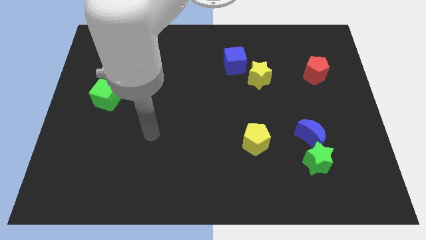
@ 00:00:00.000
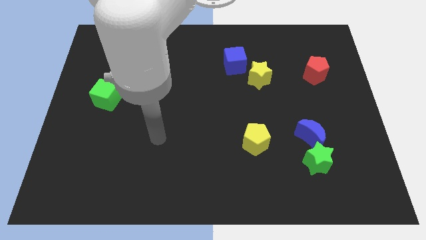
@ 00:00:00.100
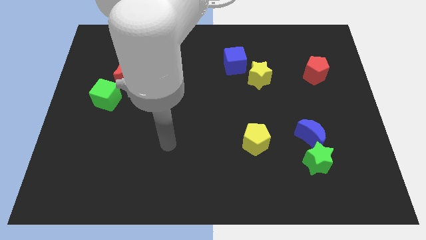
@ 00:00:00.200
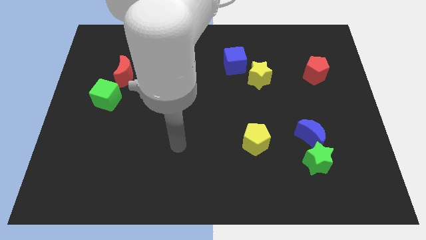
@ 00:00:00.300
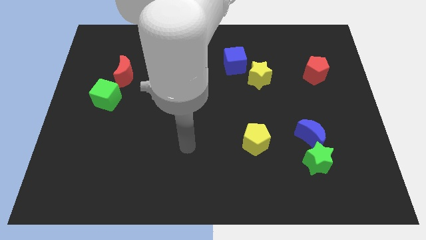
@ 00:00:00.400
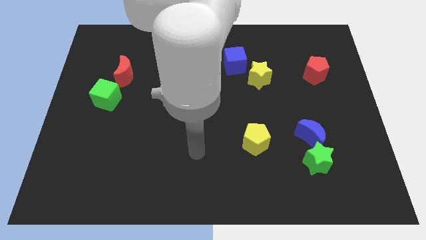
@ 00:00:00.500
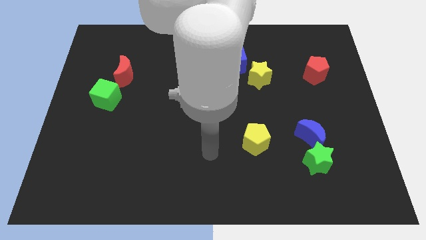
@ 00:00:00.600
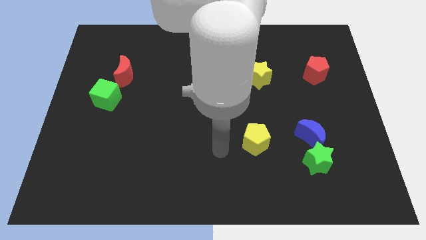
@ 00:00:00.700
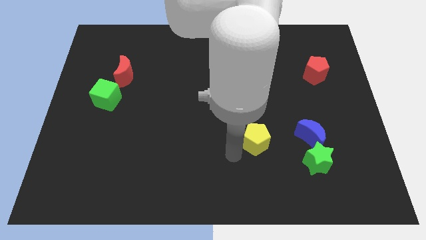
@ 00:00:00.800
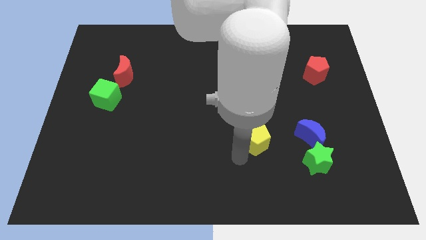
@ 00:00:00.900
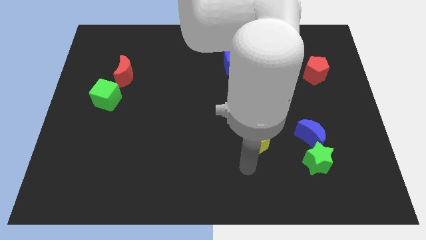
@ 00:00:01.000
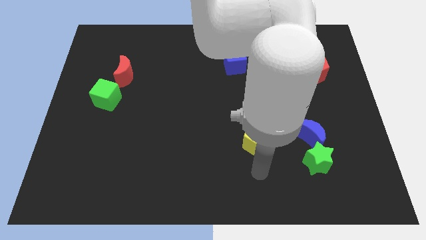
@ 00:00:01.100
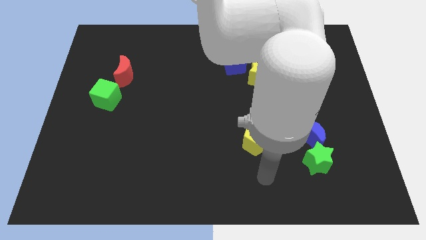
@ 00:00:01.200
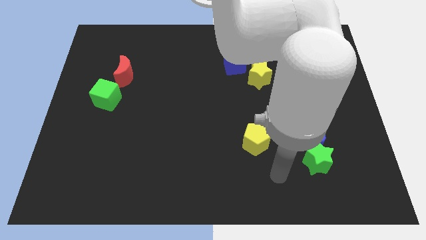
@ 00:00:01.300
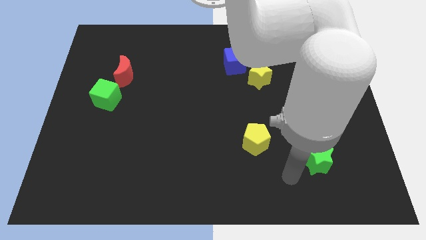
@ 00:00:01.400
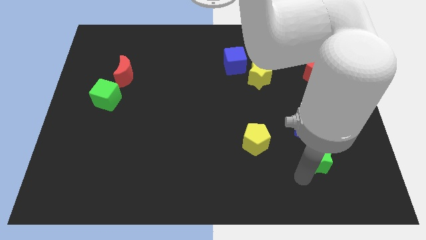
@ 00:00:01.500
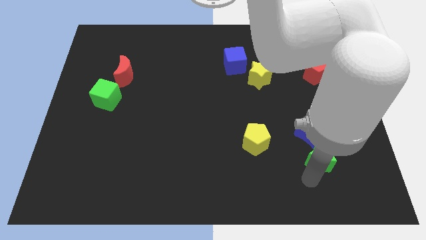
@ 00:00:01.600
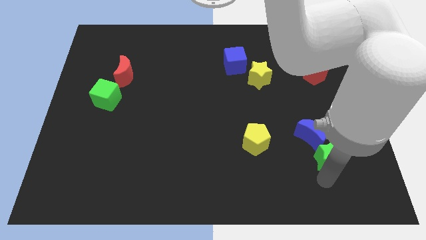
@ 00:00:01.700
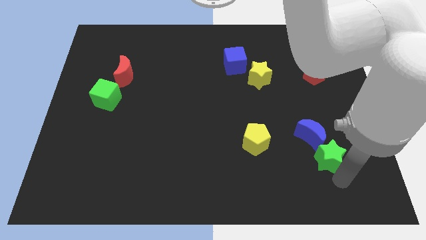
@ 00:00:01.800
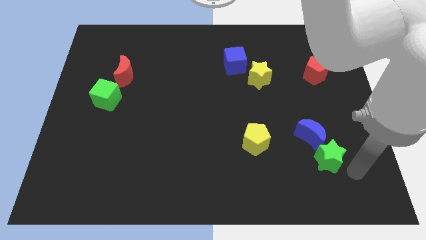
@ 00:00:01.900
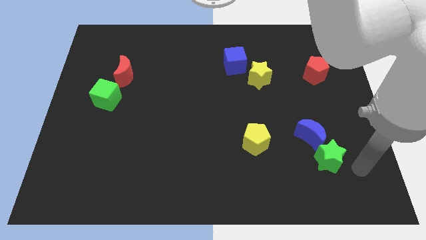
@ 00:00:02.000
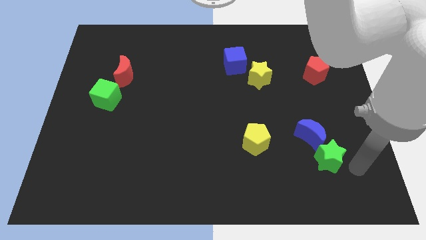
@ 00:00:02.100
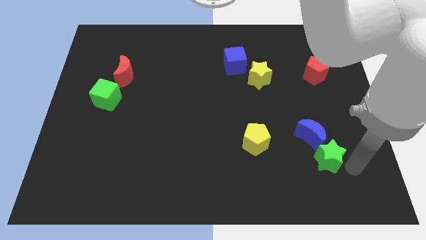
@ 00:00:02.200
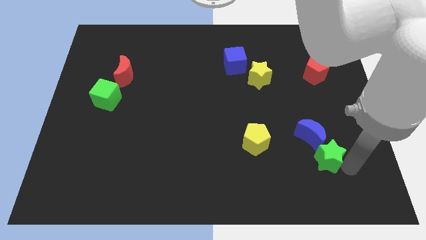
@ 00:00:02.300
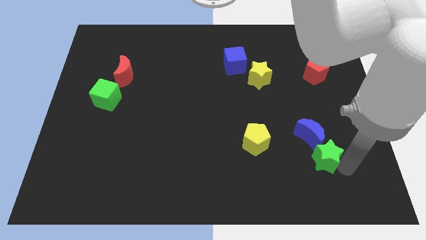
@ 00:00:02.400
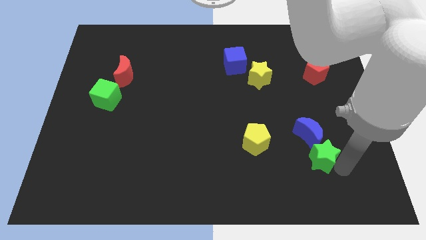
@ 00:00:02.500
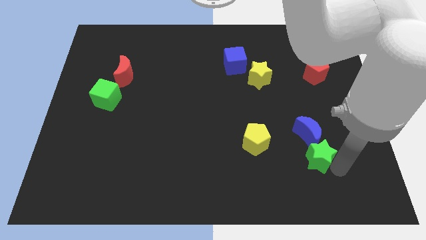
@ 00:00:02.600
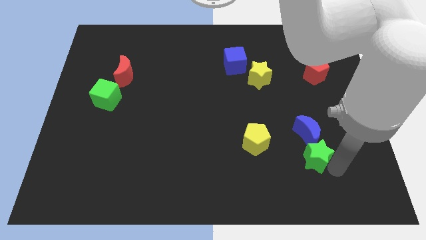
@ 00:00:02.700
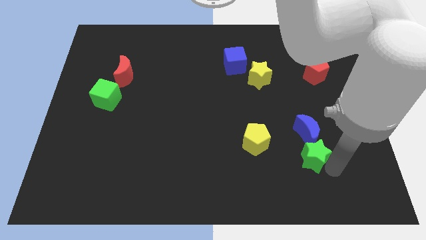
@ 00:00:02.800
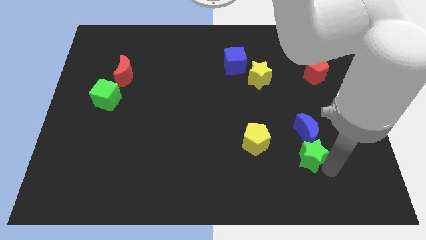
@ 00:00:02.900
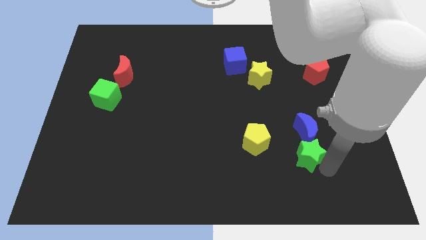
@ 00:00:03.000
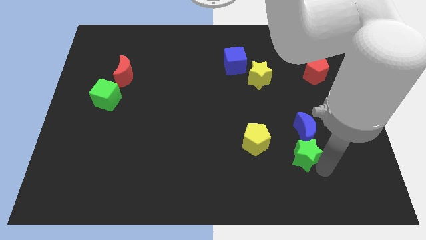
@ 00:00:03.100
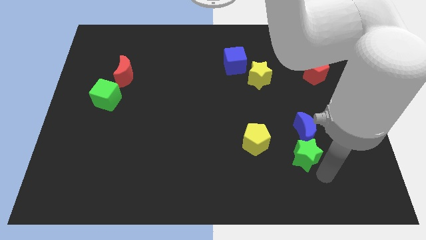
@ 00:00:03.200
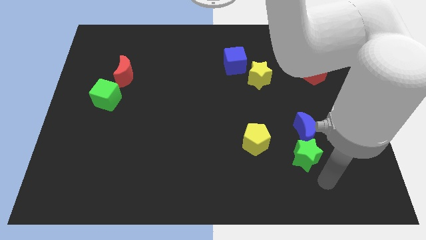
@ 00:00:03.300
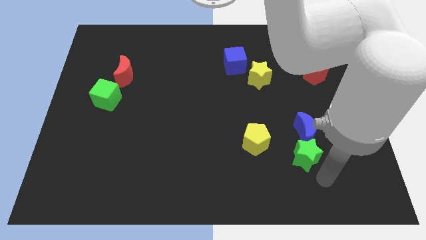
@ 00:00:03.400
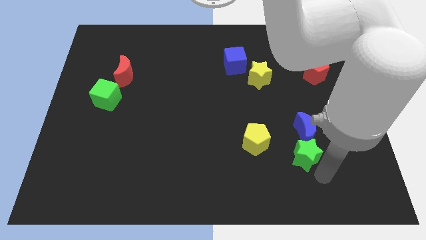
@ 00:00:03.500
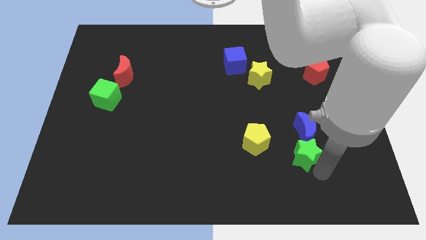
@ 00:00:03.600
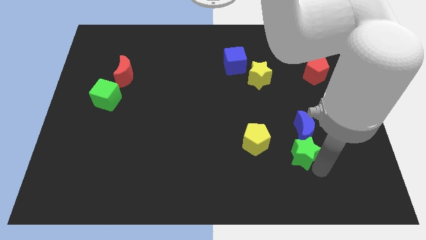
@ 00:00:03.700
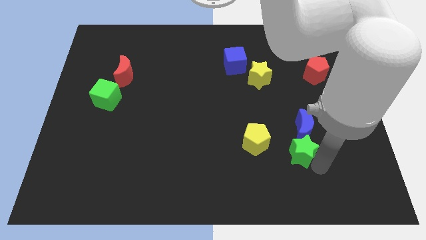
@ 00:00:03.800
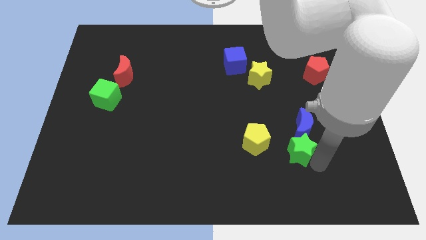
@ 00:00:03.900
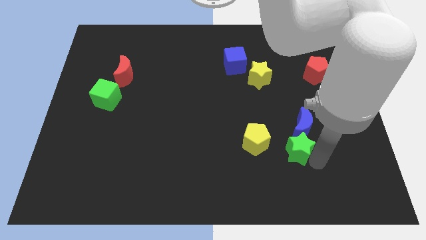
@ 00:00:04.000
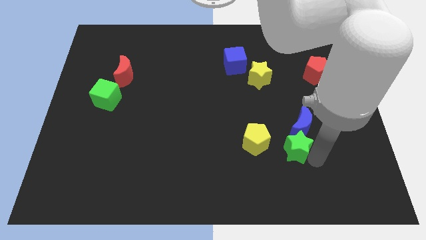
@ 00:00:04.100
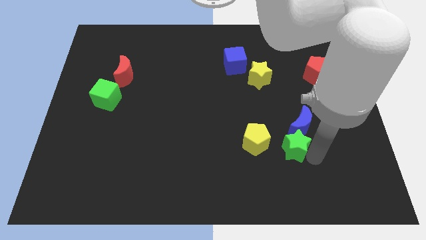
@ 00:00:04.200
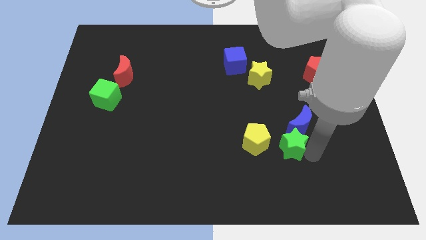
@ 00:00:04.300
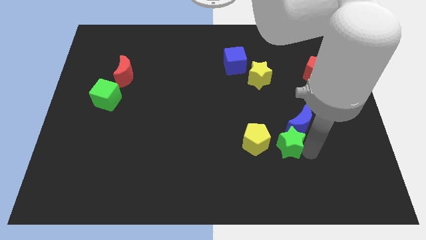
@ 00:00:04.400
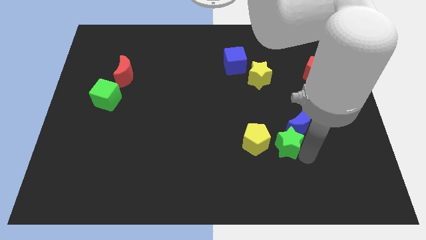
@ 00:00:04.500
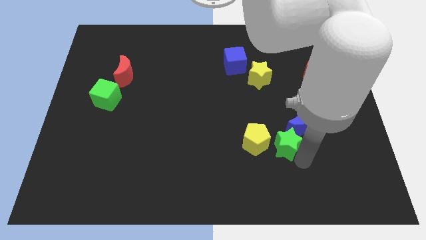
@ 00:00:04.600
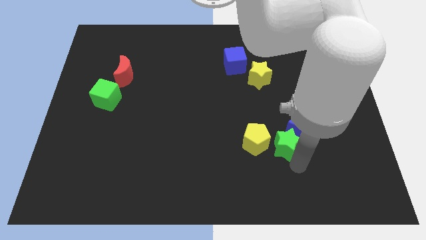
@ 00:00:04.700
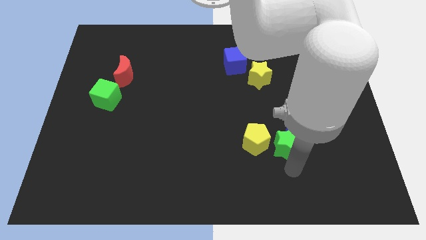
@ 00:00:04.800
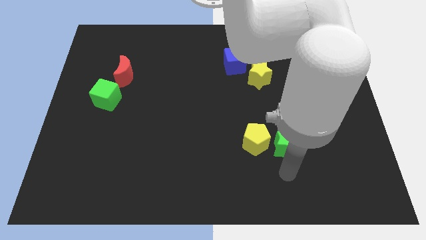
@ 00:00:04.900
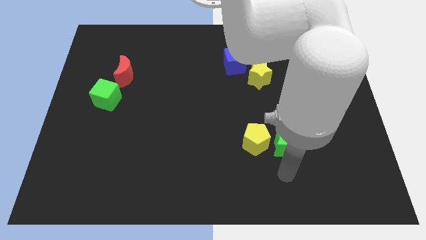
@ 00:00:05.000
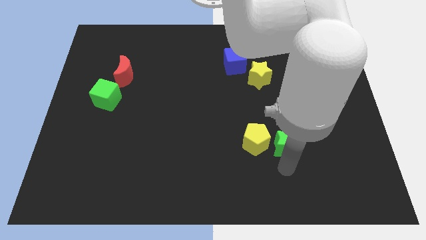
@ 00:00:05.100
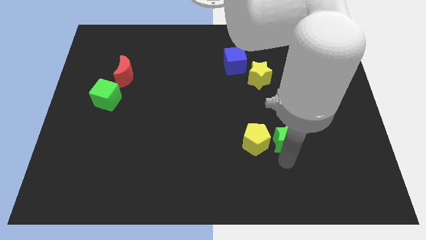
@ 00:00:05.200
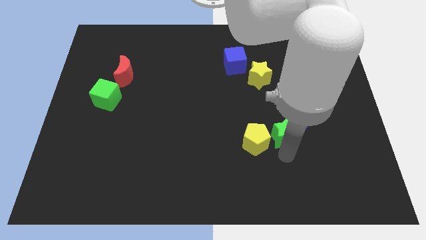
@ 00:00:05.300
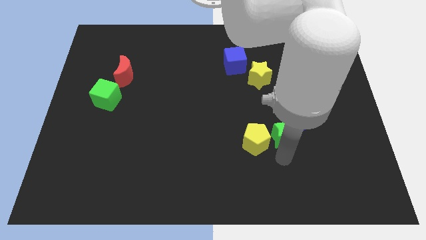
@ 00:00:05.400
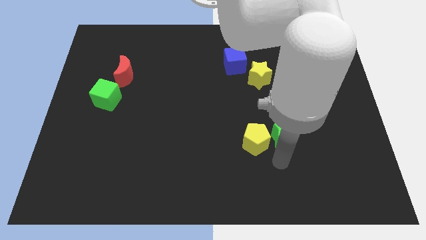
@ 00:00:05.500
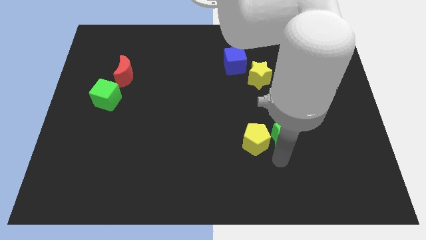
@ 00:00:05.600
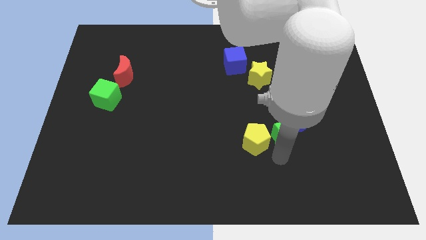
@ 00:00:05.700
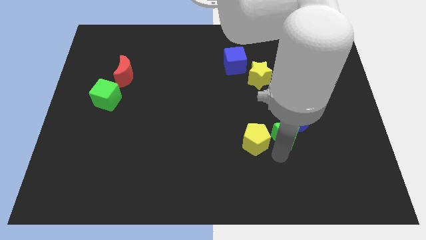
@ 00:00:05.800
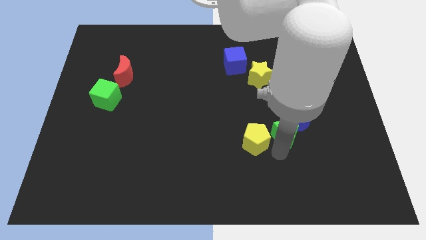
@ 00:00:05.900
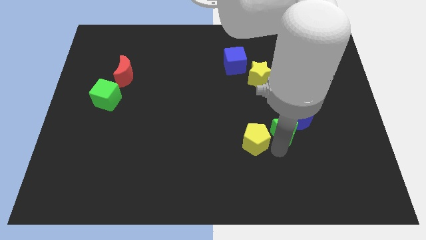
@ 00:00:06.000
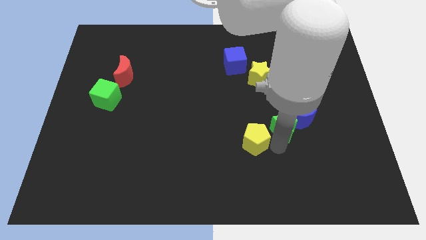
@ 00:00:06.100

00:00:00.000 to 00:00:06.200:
slightly slide the green star up

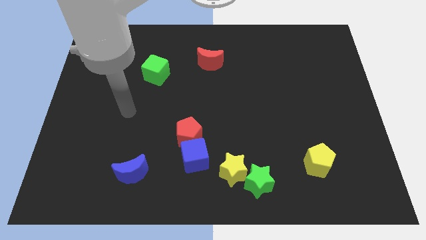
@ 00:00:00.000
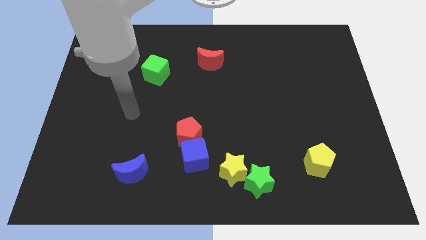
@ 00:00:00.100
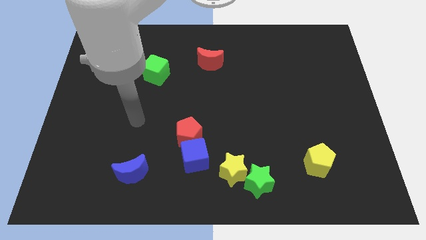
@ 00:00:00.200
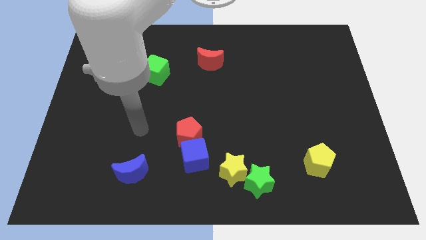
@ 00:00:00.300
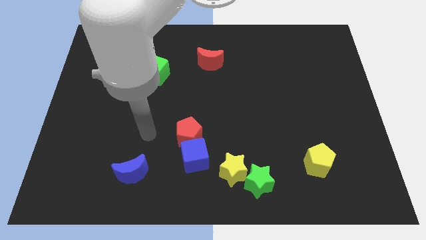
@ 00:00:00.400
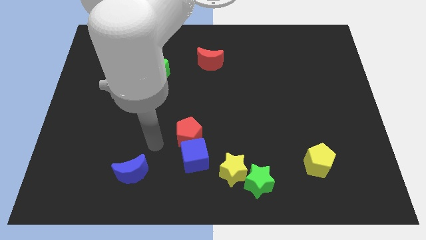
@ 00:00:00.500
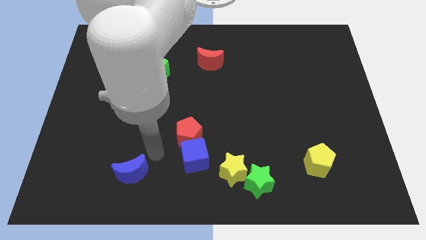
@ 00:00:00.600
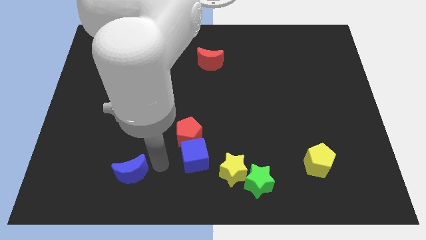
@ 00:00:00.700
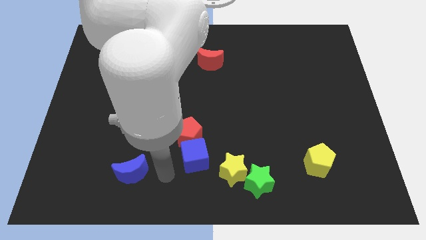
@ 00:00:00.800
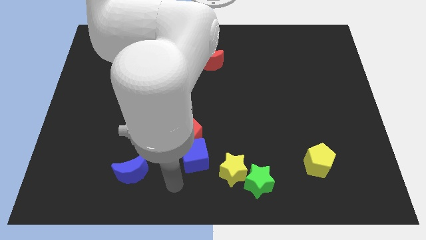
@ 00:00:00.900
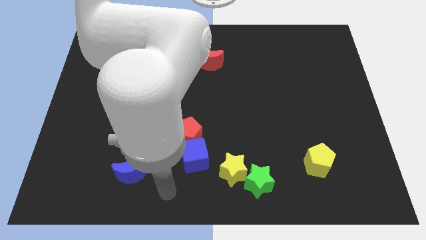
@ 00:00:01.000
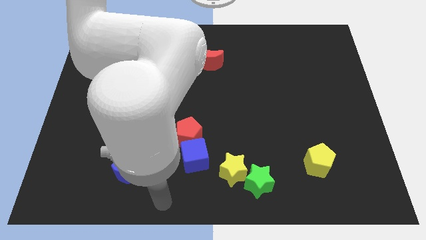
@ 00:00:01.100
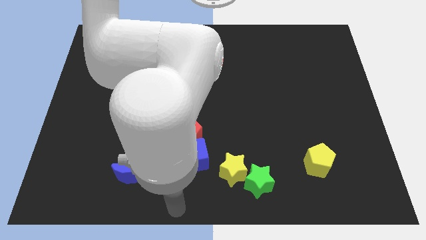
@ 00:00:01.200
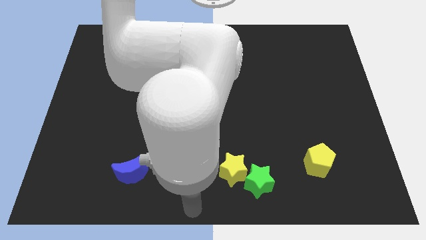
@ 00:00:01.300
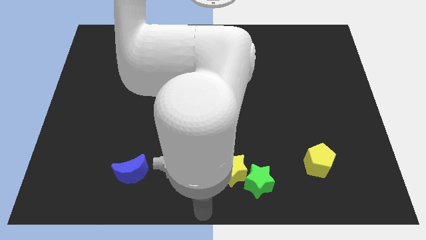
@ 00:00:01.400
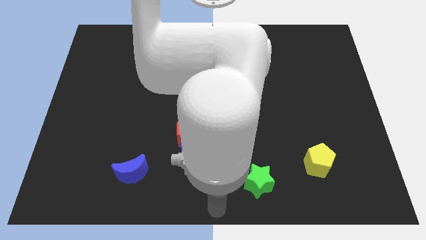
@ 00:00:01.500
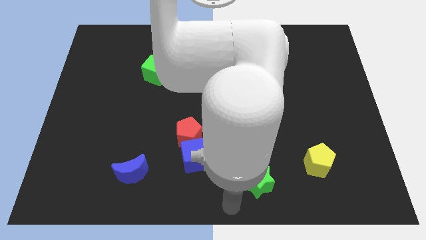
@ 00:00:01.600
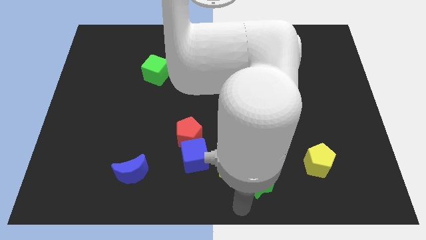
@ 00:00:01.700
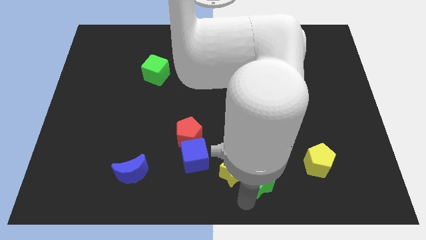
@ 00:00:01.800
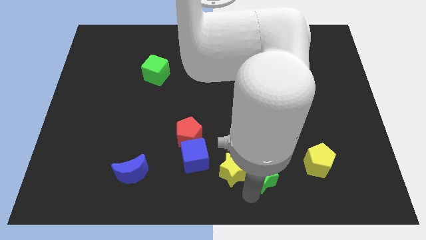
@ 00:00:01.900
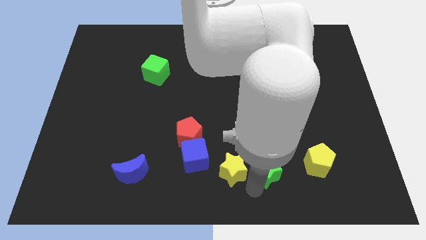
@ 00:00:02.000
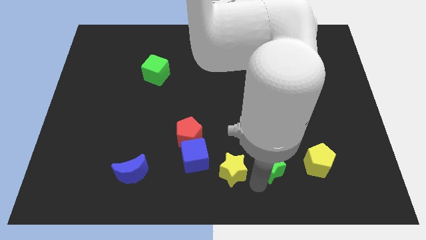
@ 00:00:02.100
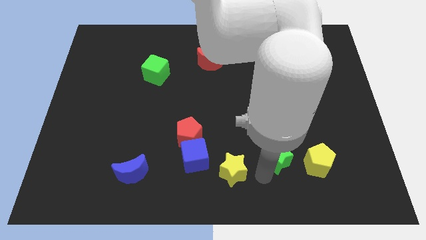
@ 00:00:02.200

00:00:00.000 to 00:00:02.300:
push the green star diagonally upwards and to the right a little bit
